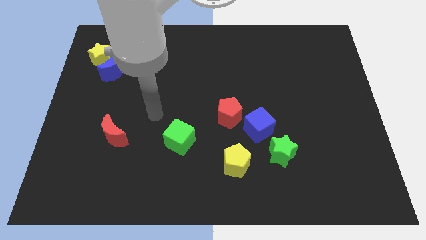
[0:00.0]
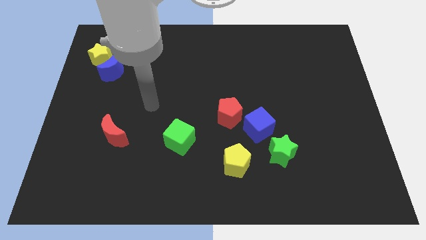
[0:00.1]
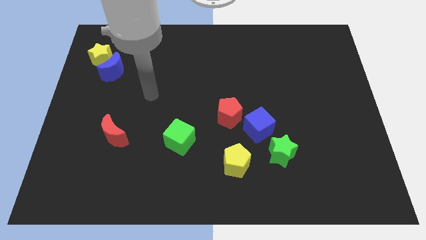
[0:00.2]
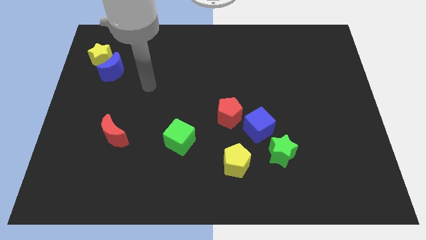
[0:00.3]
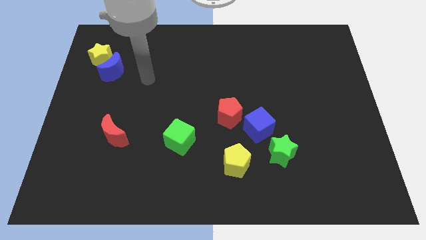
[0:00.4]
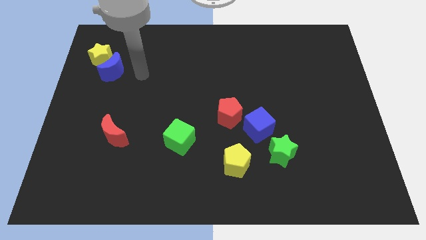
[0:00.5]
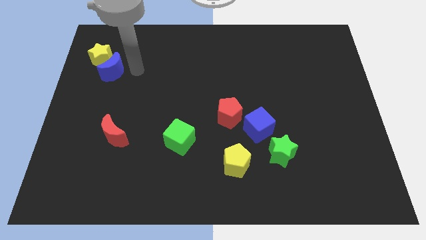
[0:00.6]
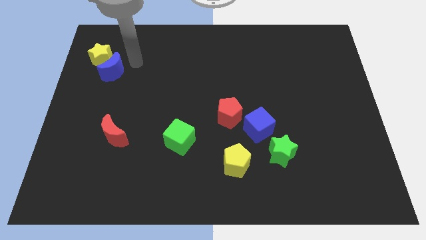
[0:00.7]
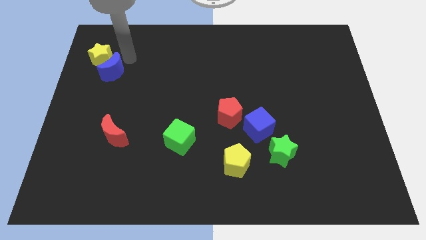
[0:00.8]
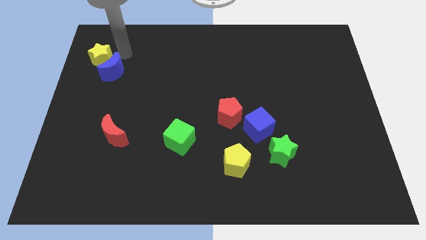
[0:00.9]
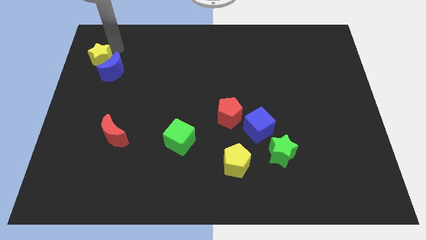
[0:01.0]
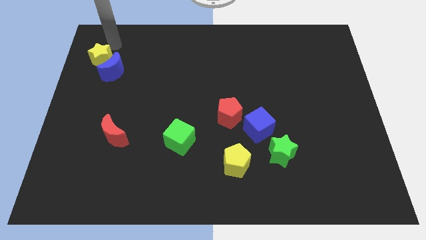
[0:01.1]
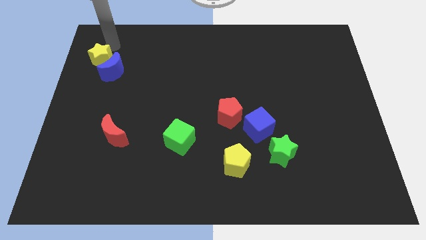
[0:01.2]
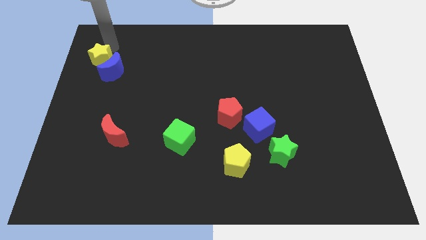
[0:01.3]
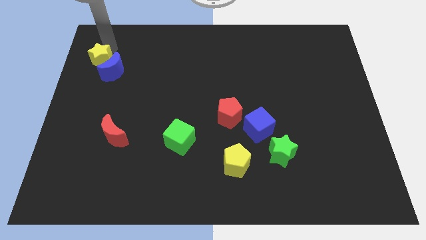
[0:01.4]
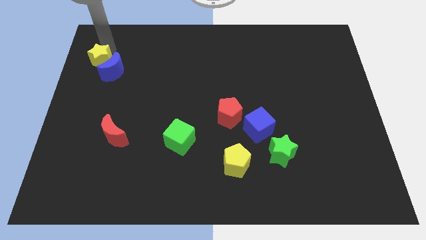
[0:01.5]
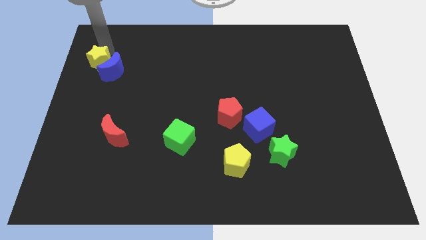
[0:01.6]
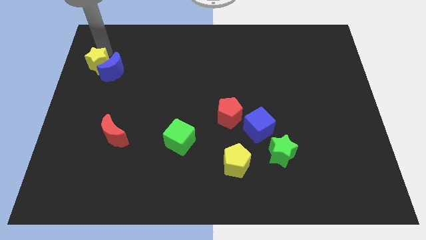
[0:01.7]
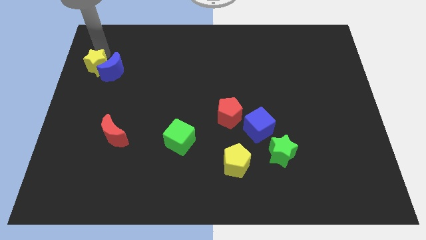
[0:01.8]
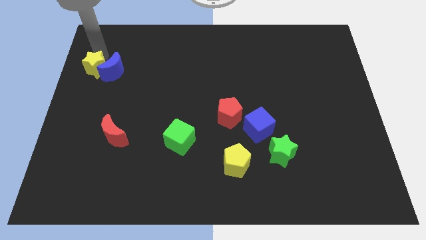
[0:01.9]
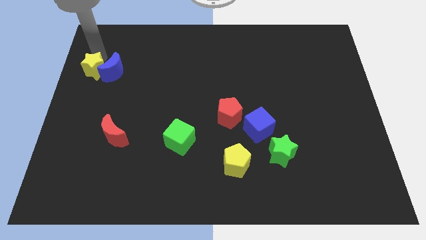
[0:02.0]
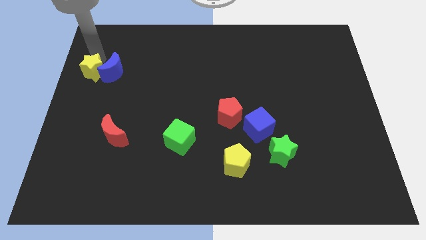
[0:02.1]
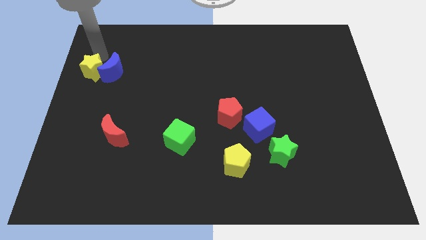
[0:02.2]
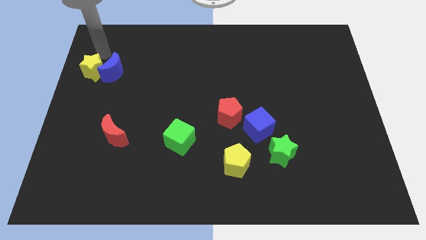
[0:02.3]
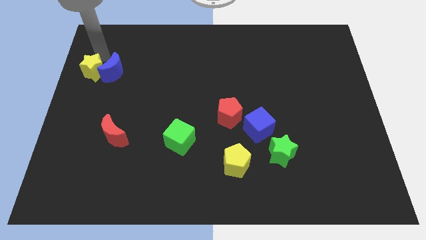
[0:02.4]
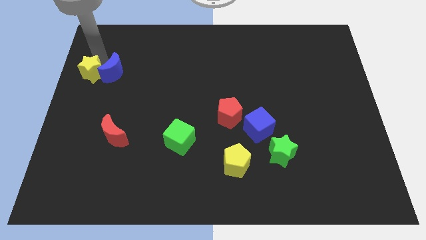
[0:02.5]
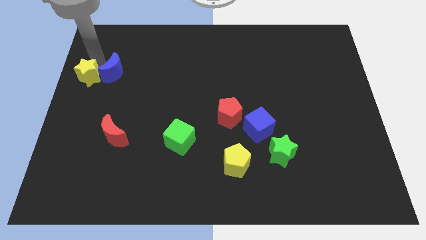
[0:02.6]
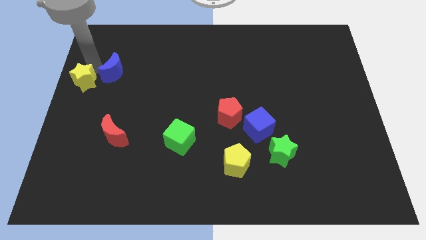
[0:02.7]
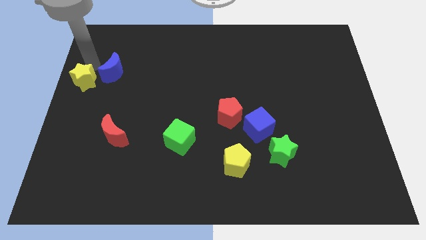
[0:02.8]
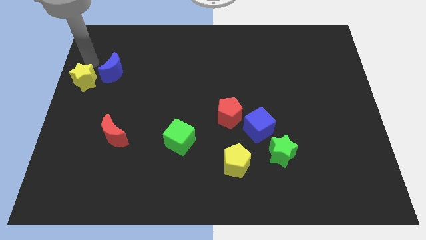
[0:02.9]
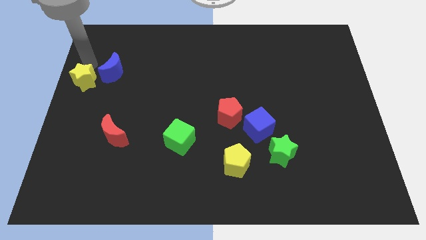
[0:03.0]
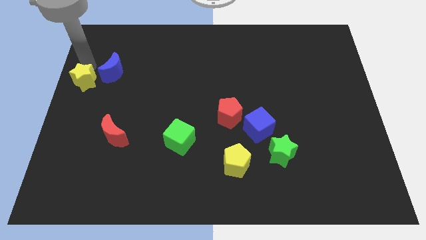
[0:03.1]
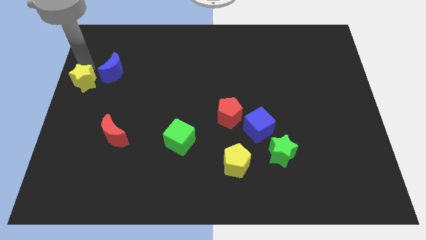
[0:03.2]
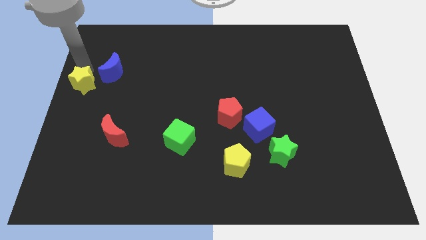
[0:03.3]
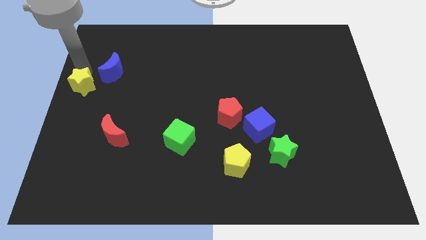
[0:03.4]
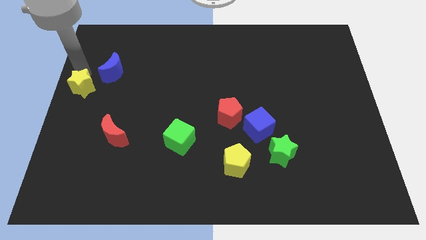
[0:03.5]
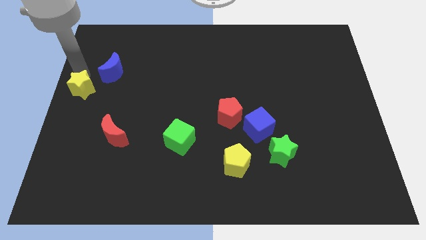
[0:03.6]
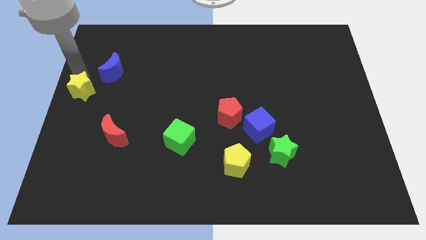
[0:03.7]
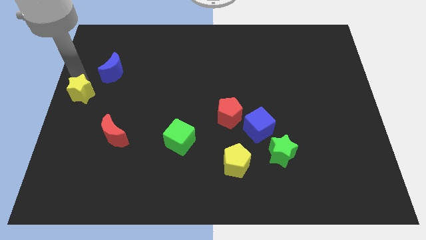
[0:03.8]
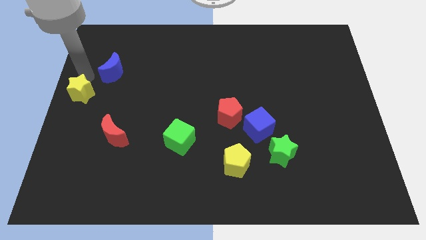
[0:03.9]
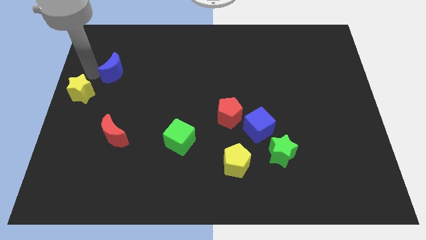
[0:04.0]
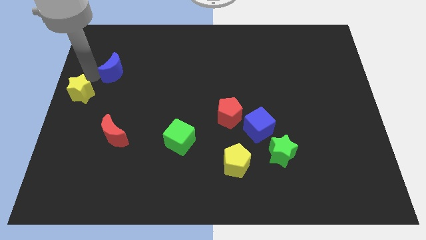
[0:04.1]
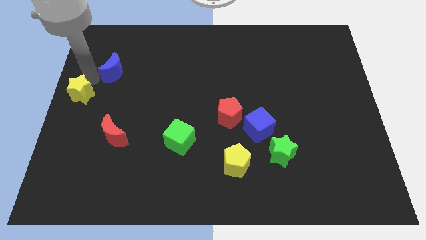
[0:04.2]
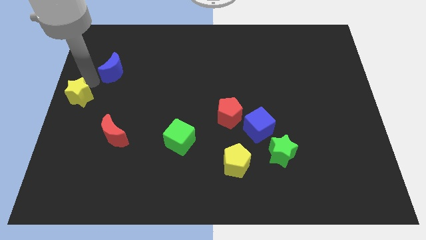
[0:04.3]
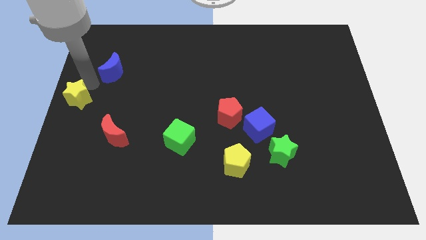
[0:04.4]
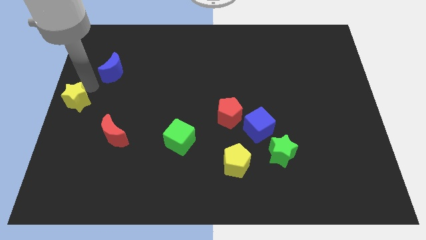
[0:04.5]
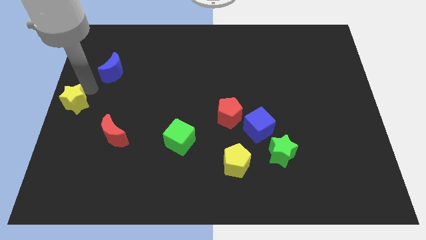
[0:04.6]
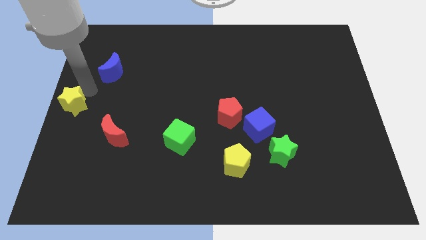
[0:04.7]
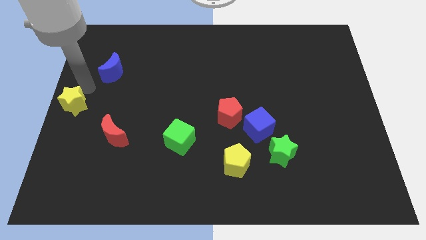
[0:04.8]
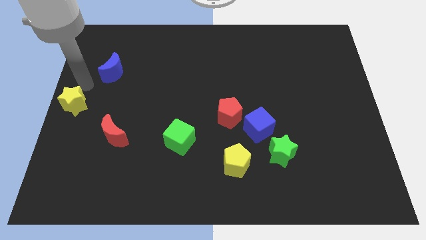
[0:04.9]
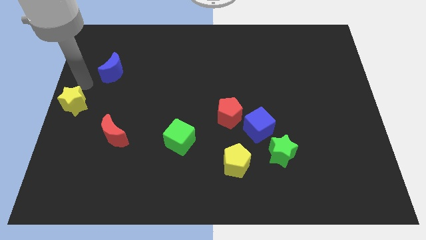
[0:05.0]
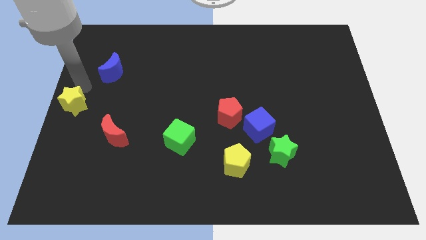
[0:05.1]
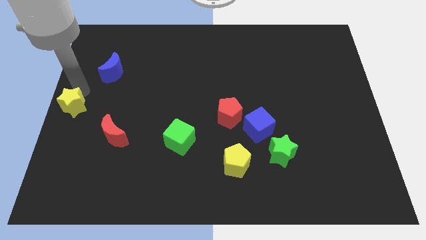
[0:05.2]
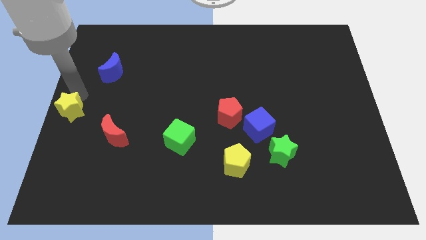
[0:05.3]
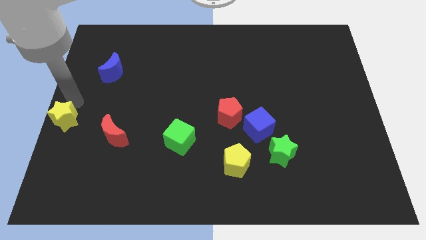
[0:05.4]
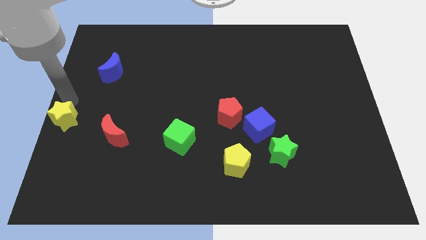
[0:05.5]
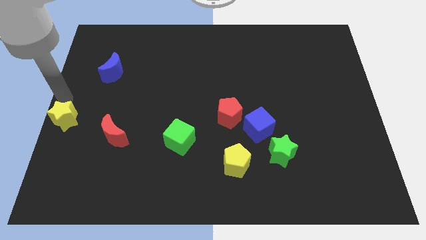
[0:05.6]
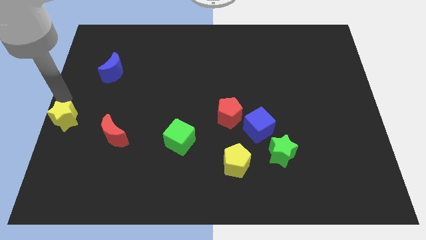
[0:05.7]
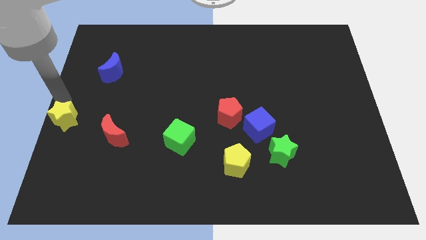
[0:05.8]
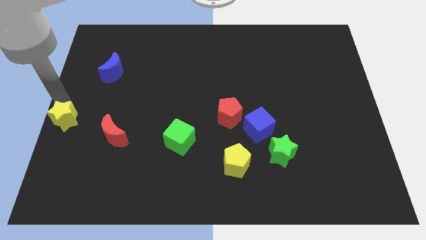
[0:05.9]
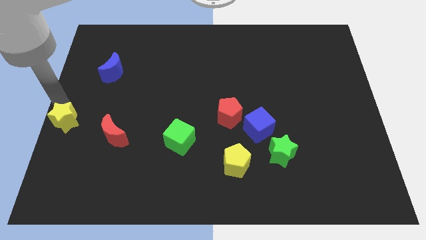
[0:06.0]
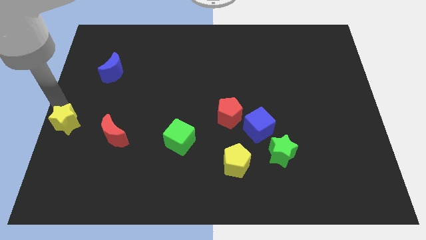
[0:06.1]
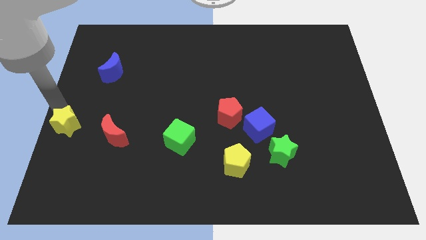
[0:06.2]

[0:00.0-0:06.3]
slide the yellow star downwards

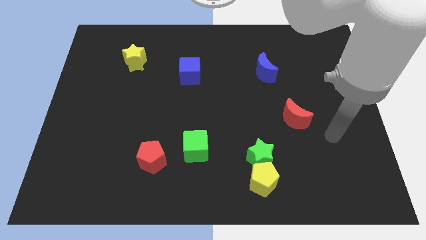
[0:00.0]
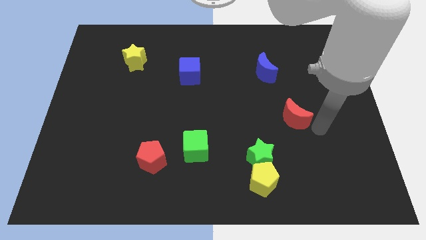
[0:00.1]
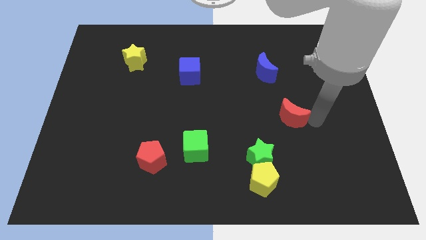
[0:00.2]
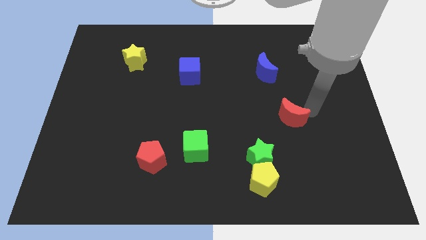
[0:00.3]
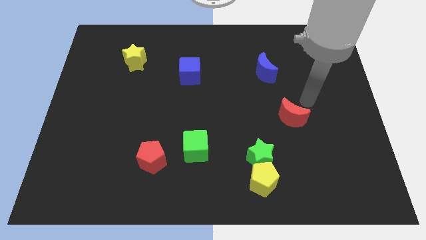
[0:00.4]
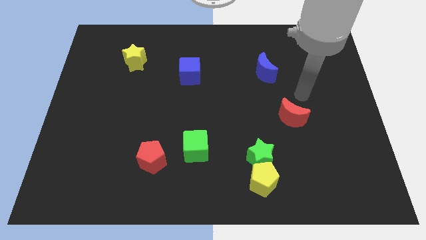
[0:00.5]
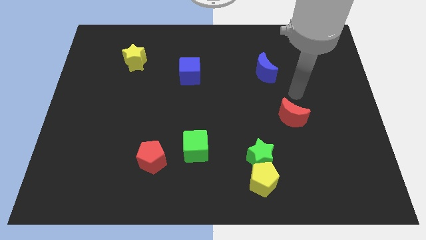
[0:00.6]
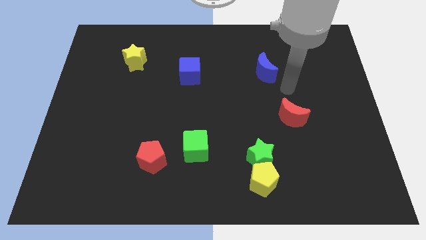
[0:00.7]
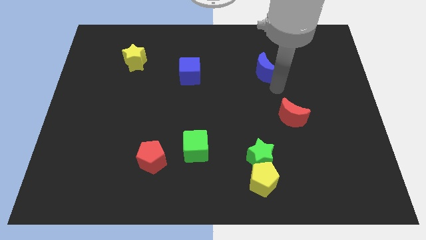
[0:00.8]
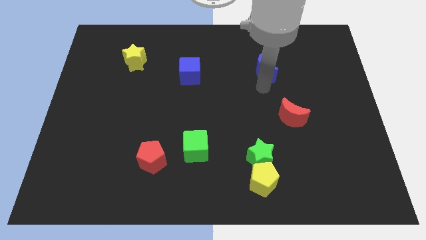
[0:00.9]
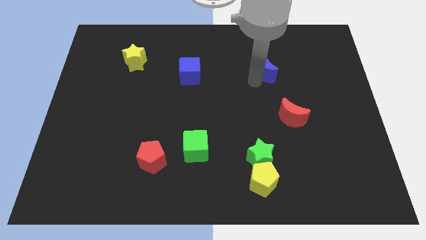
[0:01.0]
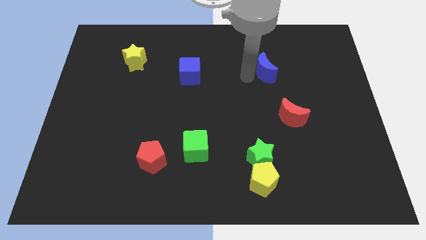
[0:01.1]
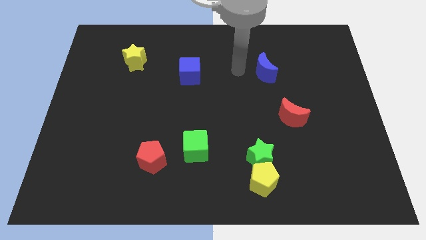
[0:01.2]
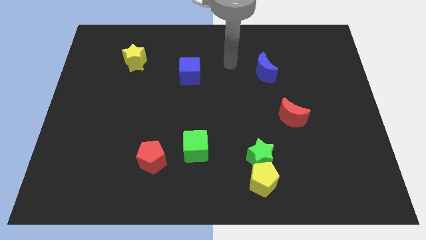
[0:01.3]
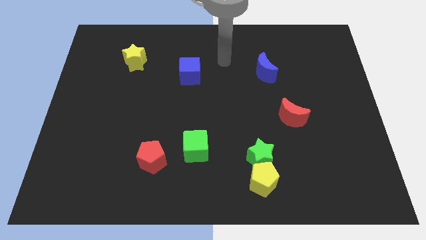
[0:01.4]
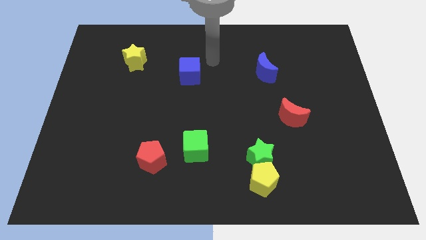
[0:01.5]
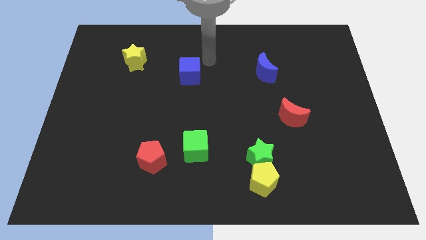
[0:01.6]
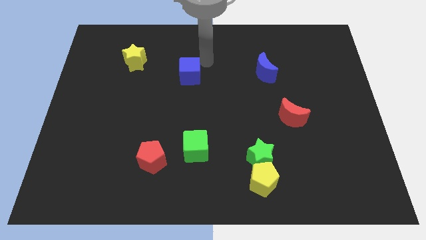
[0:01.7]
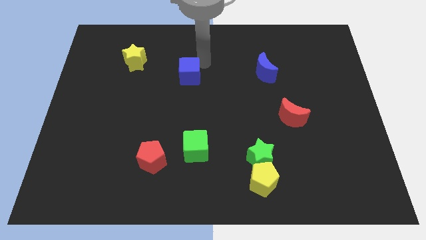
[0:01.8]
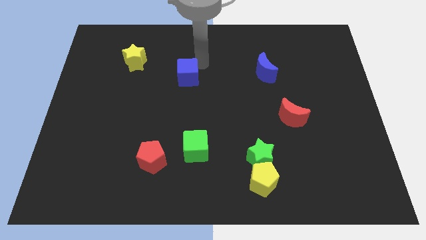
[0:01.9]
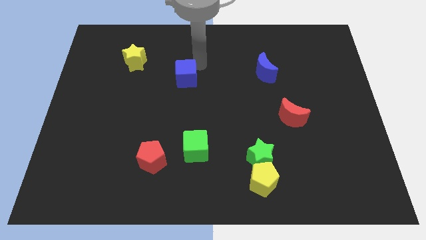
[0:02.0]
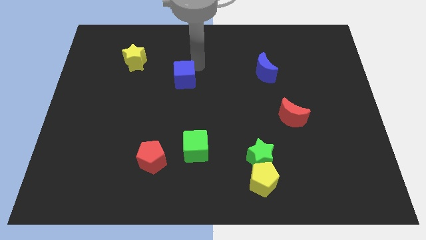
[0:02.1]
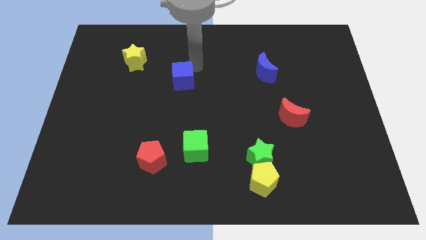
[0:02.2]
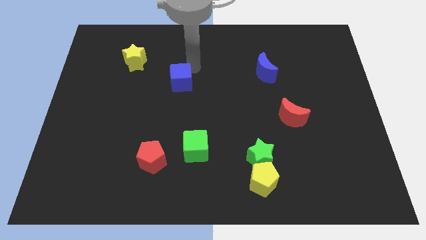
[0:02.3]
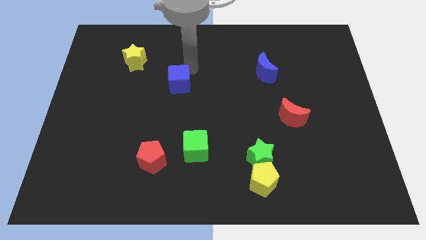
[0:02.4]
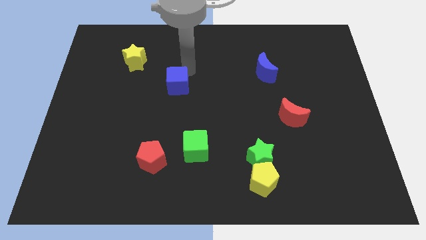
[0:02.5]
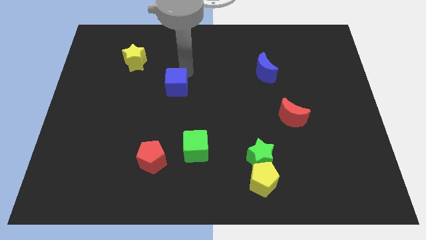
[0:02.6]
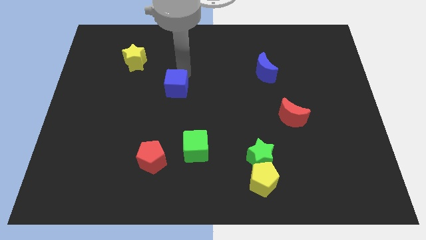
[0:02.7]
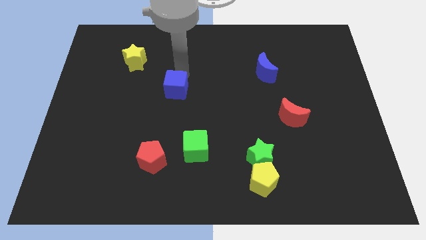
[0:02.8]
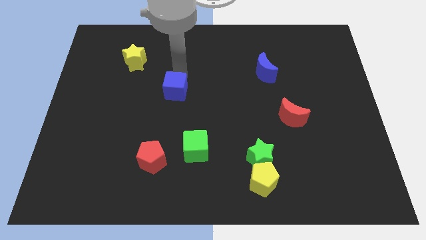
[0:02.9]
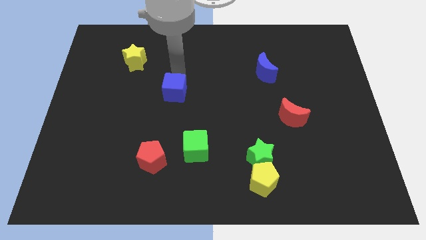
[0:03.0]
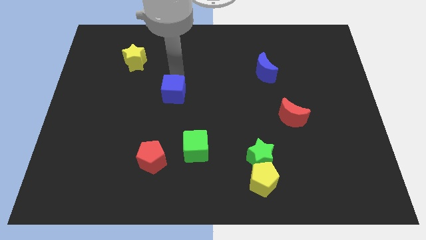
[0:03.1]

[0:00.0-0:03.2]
slide the blue cube a little bit down and then left
